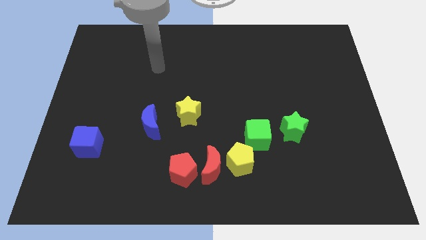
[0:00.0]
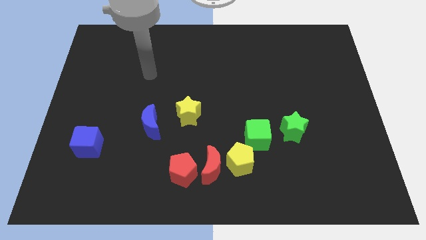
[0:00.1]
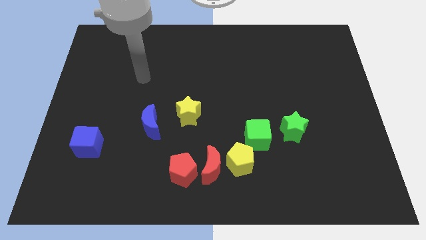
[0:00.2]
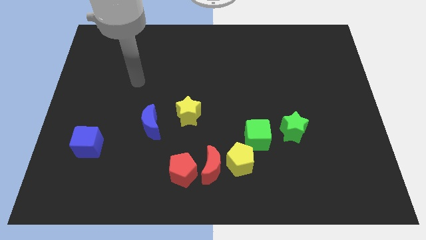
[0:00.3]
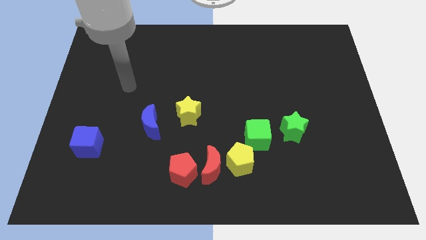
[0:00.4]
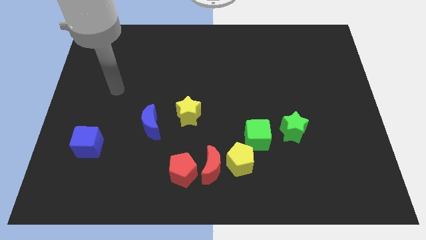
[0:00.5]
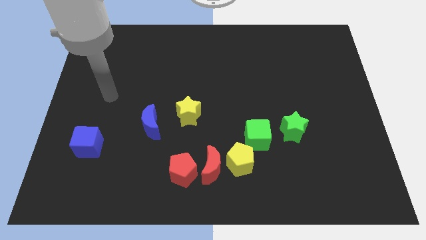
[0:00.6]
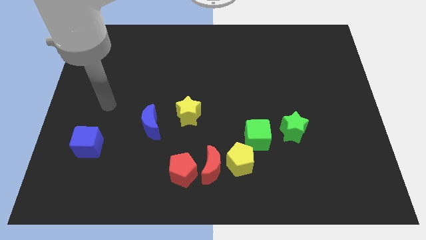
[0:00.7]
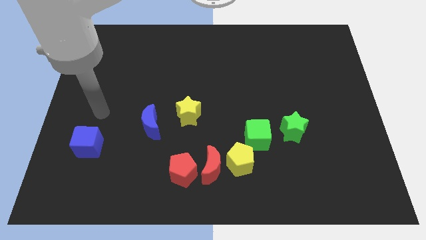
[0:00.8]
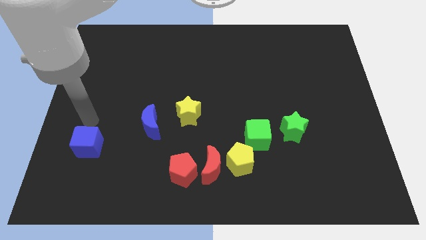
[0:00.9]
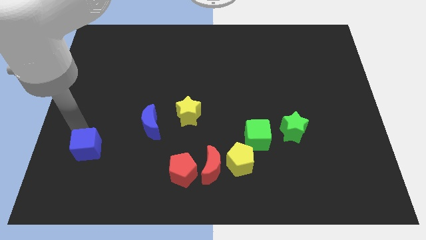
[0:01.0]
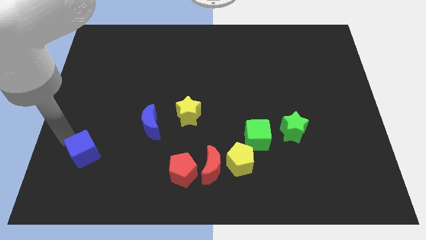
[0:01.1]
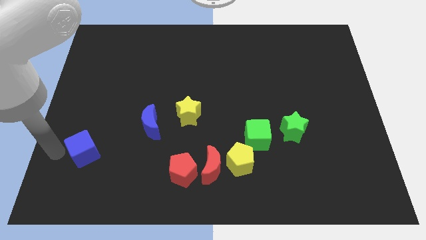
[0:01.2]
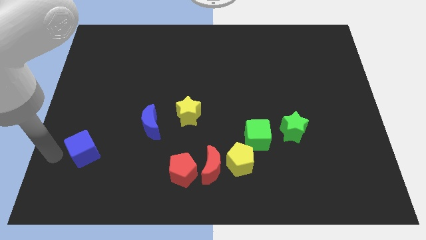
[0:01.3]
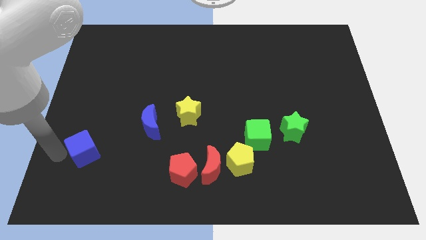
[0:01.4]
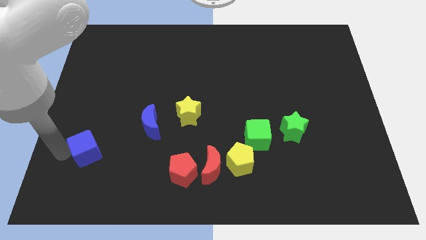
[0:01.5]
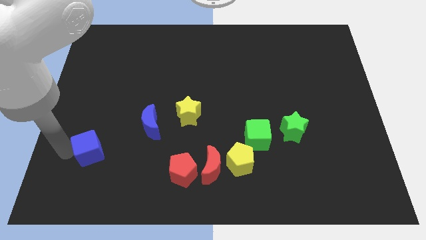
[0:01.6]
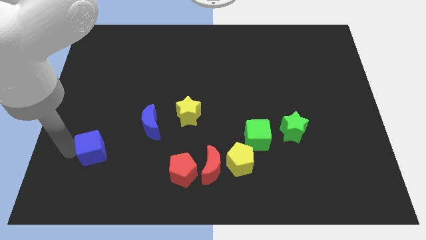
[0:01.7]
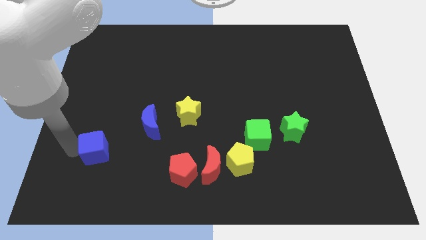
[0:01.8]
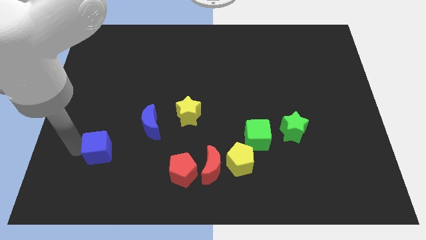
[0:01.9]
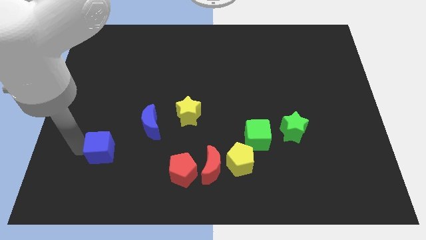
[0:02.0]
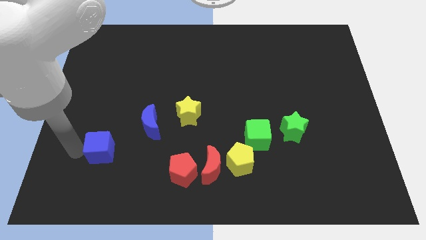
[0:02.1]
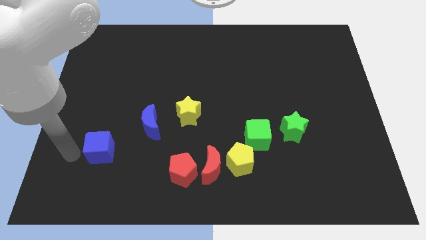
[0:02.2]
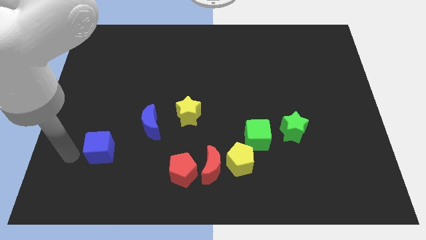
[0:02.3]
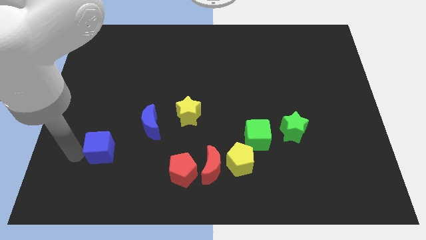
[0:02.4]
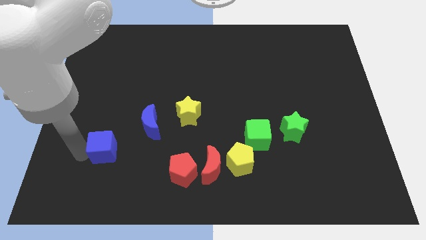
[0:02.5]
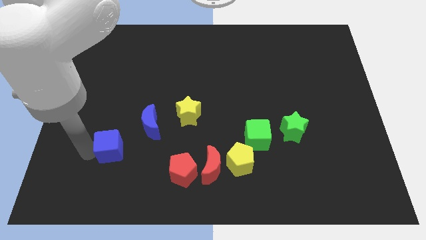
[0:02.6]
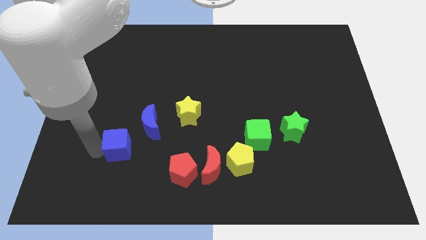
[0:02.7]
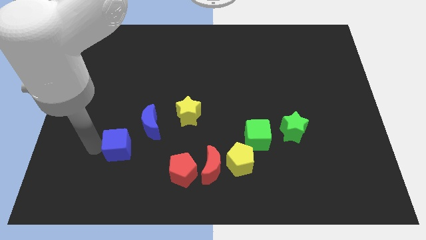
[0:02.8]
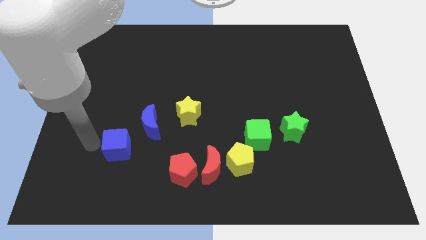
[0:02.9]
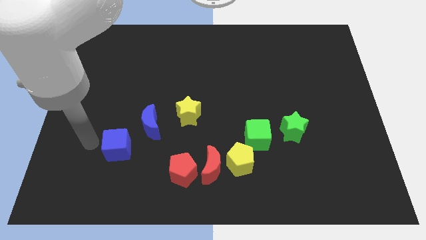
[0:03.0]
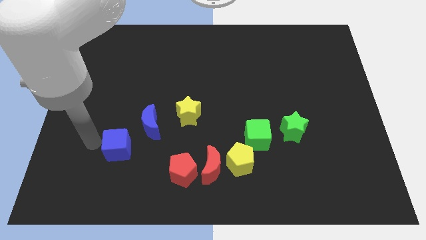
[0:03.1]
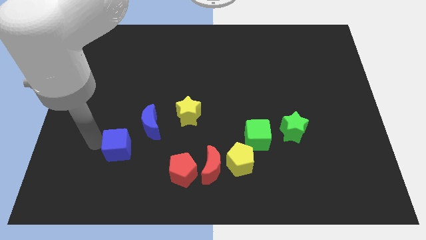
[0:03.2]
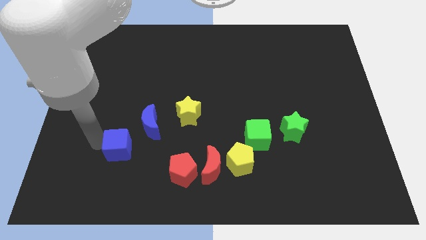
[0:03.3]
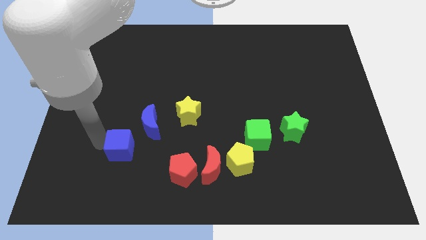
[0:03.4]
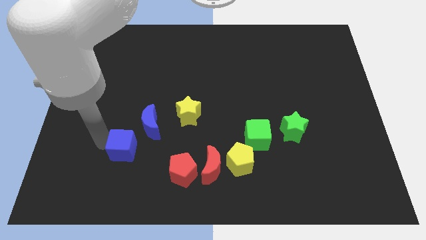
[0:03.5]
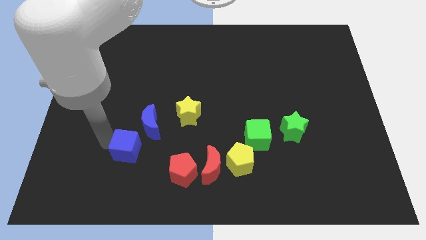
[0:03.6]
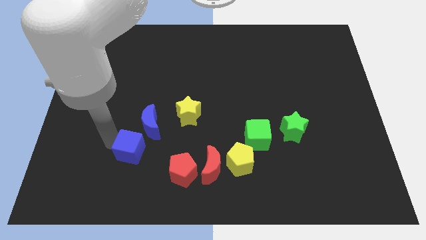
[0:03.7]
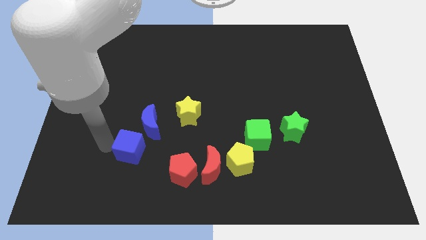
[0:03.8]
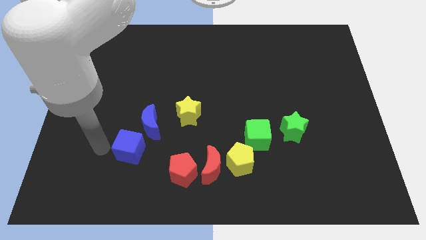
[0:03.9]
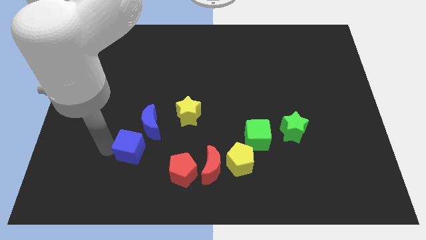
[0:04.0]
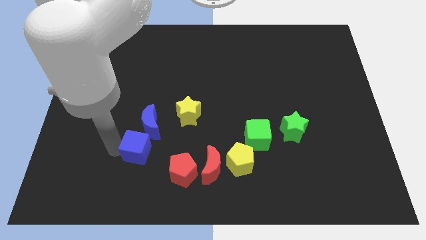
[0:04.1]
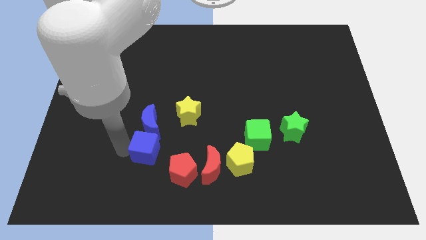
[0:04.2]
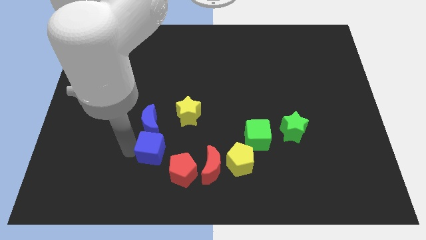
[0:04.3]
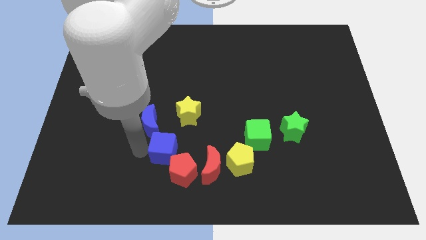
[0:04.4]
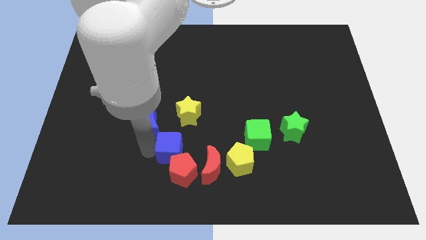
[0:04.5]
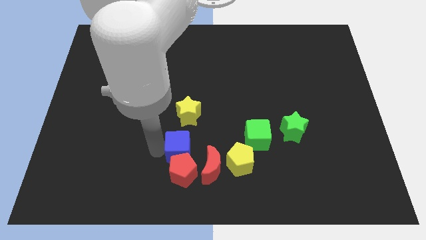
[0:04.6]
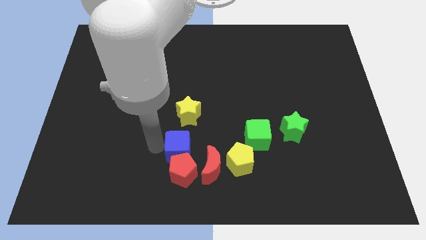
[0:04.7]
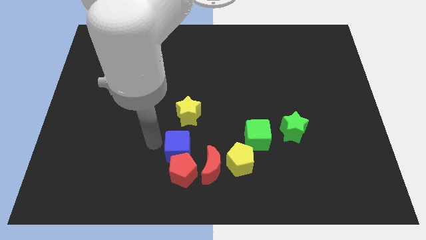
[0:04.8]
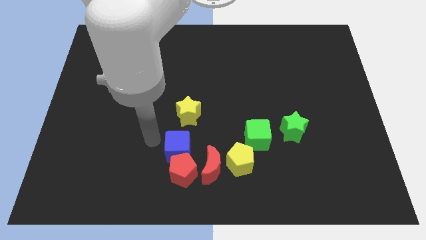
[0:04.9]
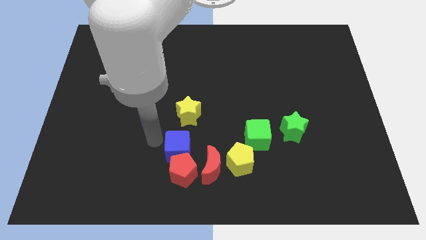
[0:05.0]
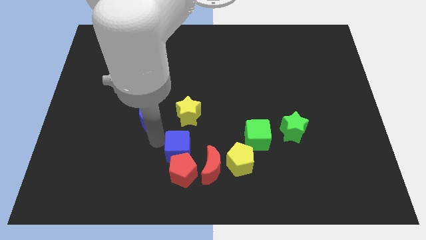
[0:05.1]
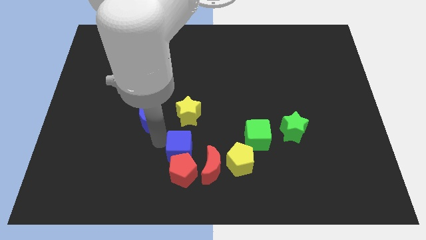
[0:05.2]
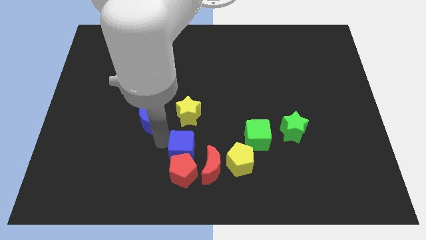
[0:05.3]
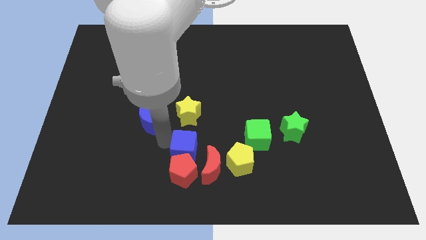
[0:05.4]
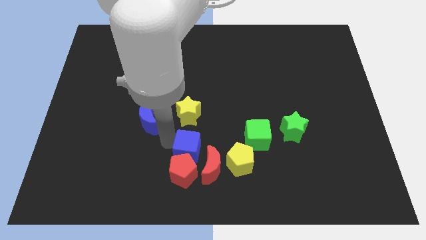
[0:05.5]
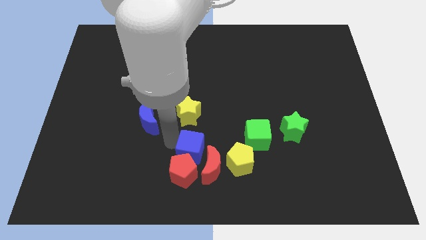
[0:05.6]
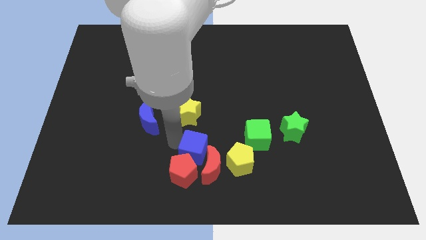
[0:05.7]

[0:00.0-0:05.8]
push the blue cube to the red moon
